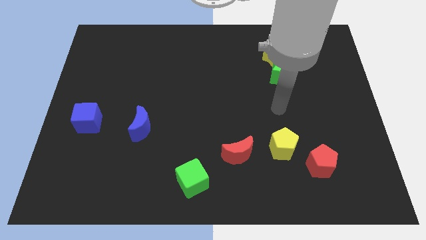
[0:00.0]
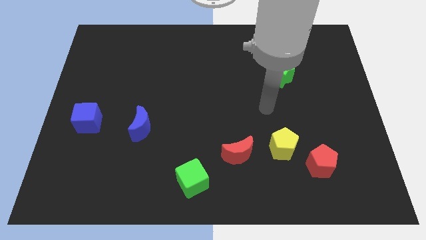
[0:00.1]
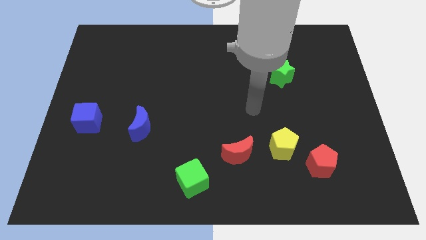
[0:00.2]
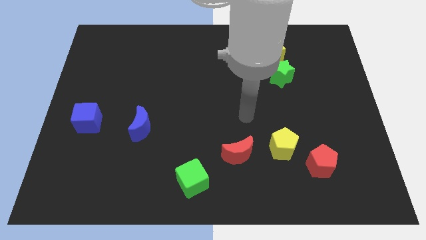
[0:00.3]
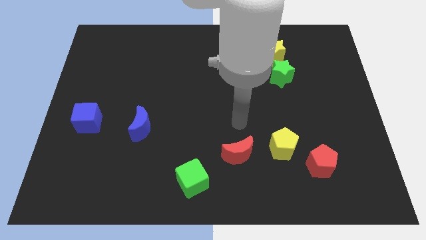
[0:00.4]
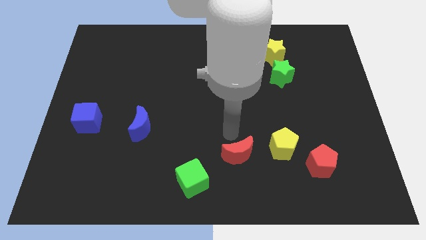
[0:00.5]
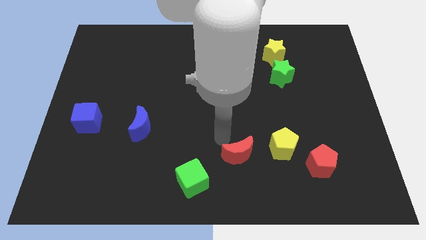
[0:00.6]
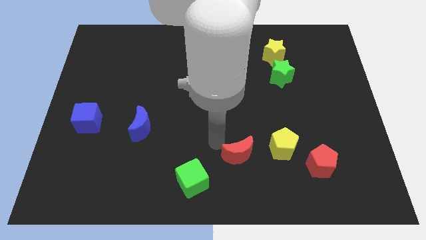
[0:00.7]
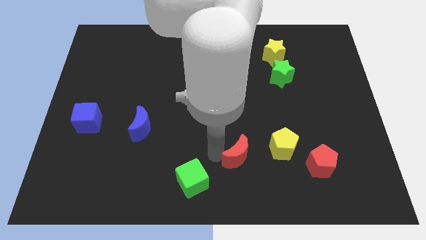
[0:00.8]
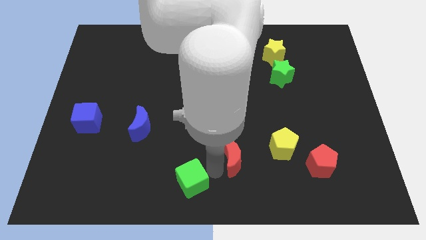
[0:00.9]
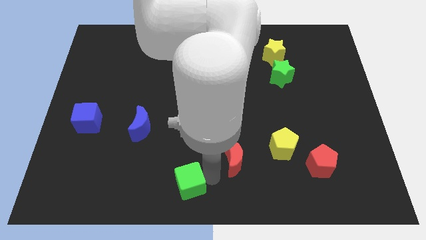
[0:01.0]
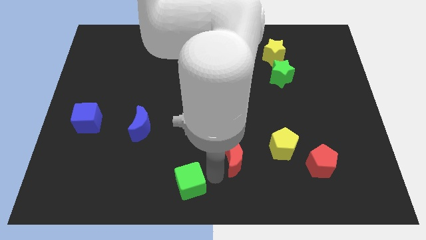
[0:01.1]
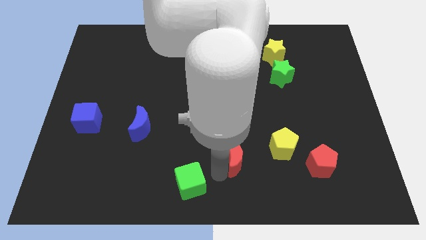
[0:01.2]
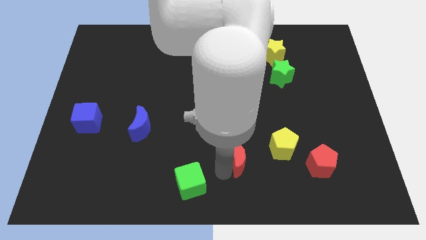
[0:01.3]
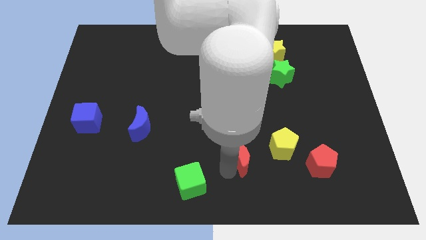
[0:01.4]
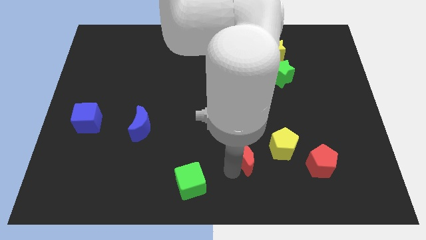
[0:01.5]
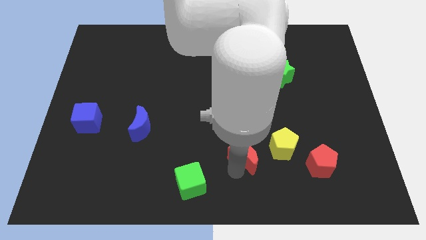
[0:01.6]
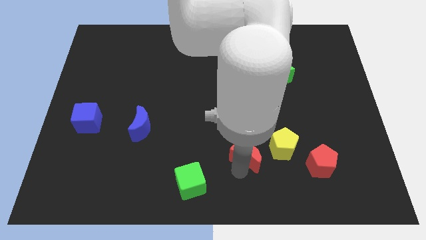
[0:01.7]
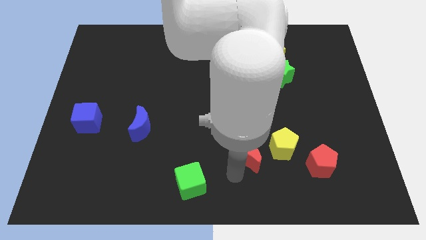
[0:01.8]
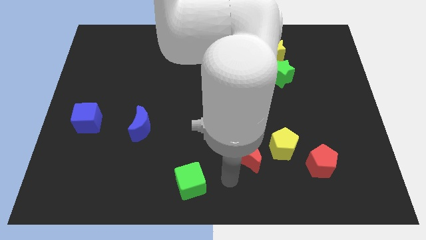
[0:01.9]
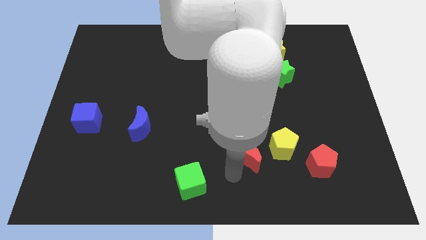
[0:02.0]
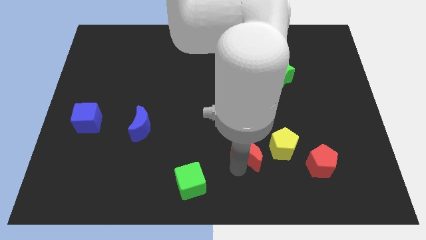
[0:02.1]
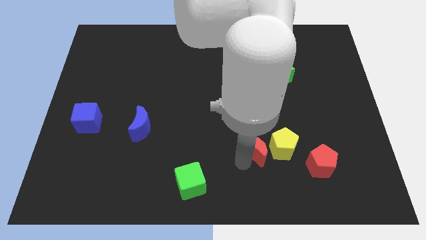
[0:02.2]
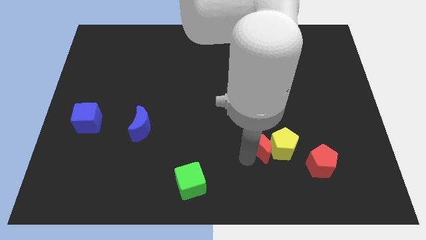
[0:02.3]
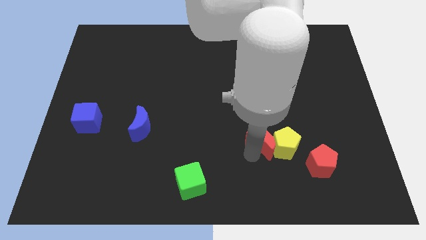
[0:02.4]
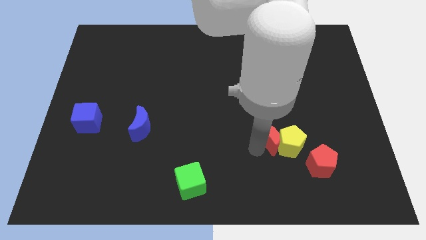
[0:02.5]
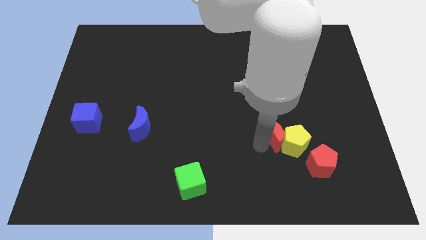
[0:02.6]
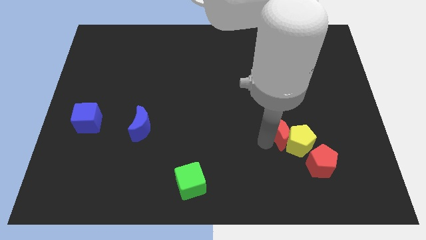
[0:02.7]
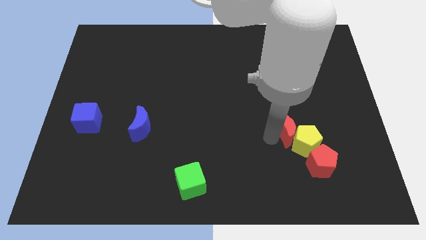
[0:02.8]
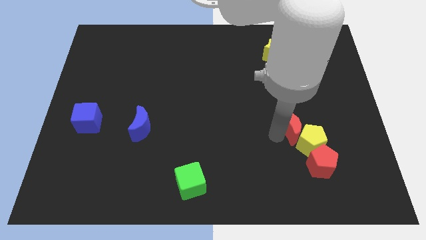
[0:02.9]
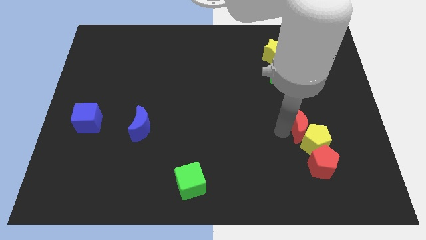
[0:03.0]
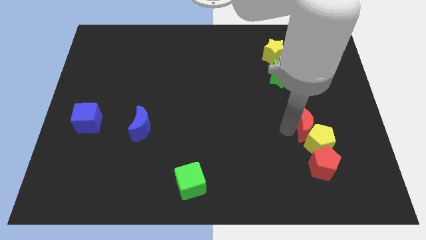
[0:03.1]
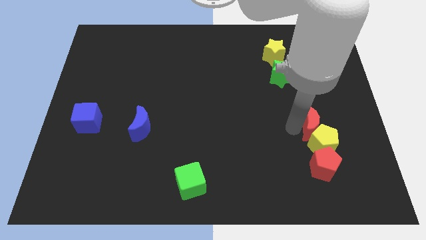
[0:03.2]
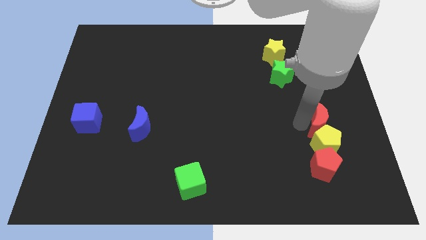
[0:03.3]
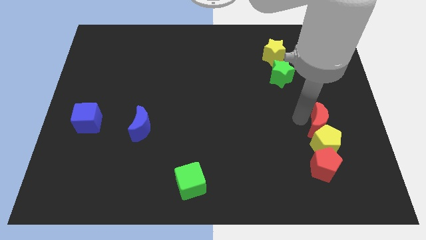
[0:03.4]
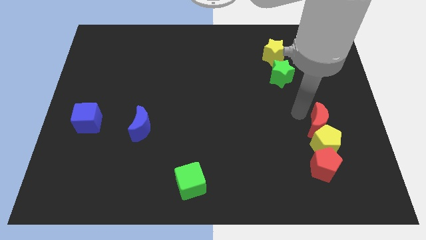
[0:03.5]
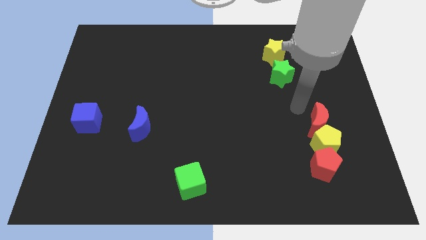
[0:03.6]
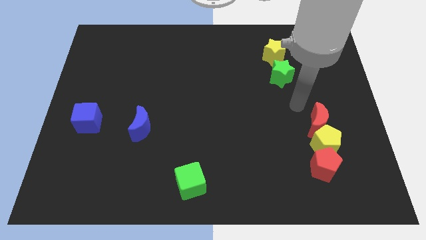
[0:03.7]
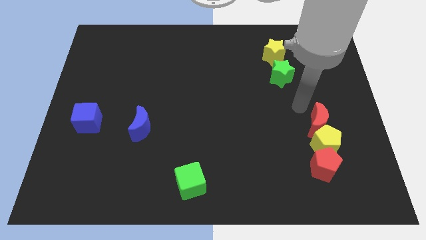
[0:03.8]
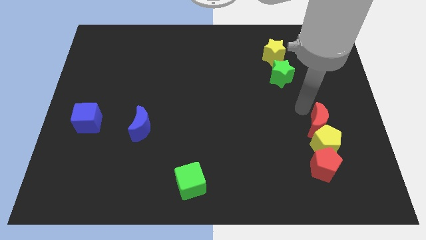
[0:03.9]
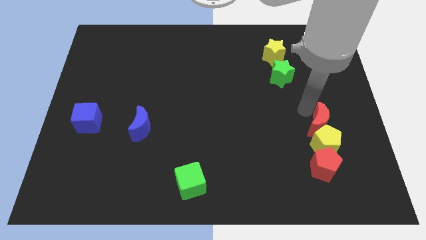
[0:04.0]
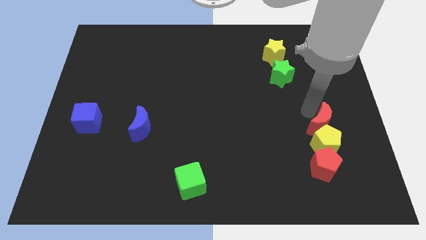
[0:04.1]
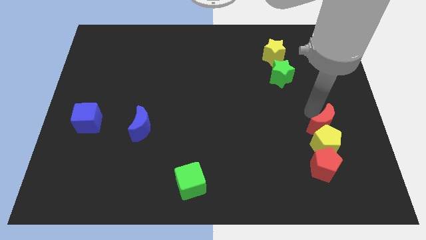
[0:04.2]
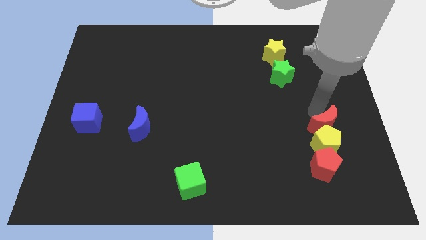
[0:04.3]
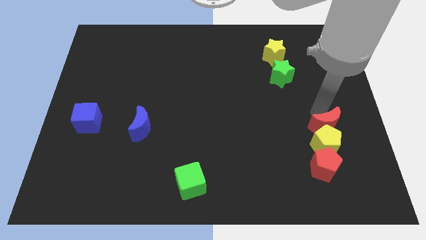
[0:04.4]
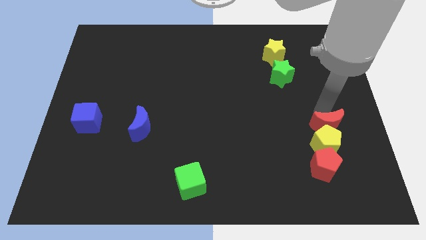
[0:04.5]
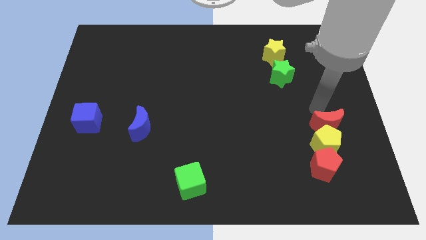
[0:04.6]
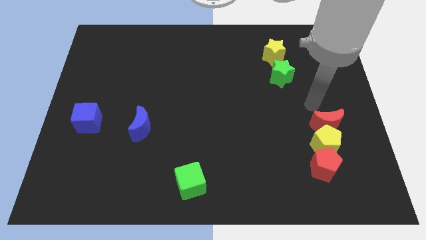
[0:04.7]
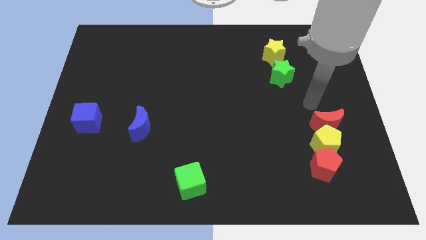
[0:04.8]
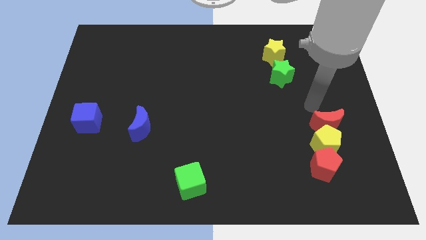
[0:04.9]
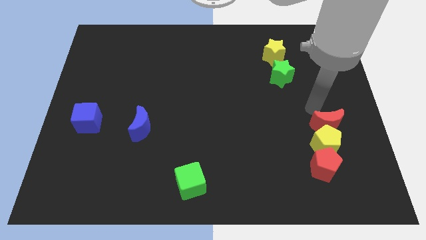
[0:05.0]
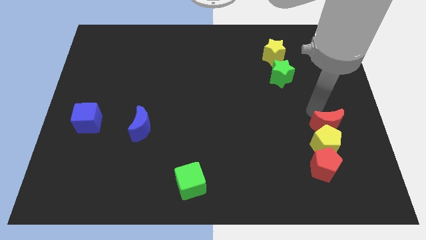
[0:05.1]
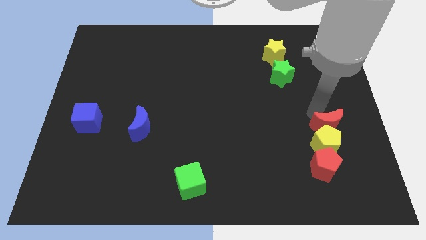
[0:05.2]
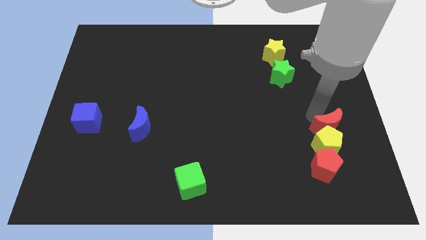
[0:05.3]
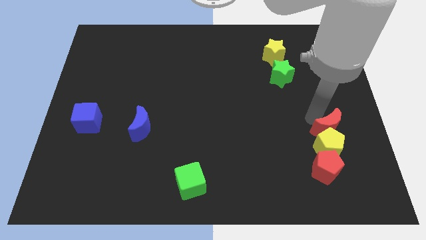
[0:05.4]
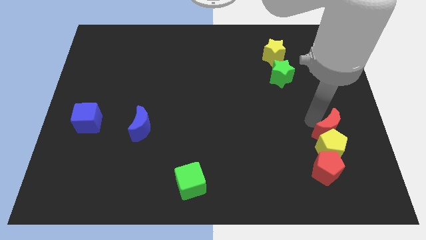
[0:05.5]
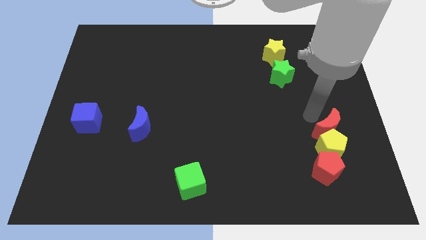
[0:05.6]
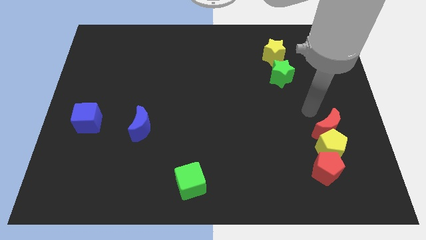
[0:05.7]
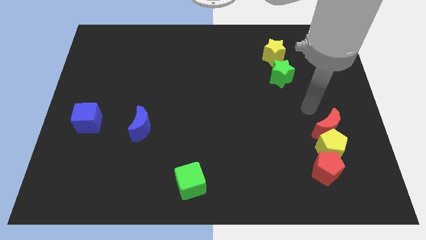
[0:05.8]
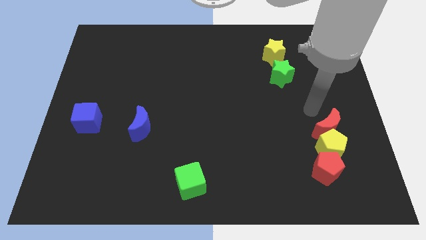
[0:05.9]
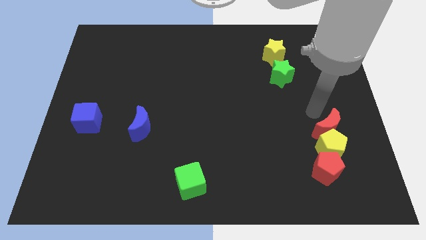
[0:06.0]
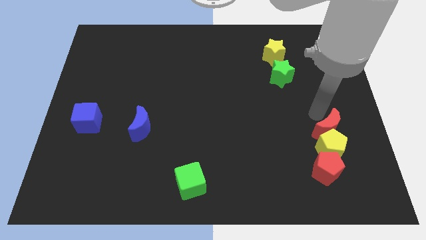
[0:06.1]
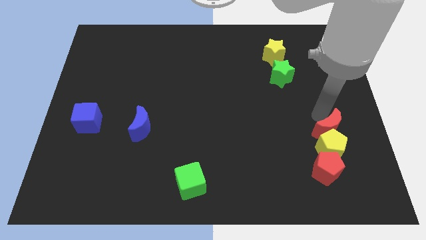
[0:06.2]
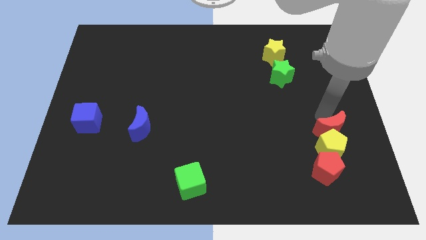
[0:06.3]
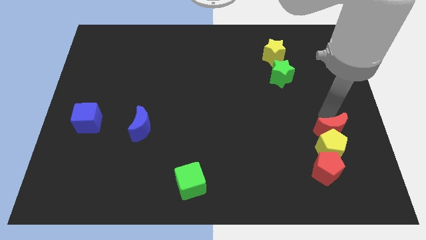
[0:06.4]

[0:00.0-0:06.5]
slide the red moon to the top right of the red pentagon

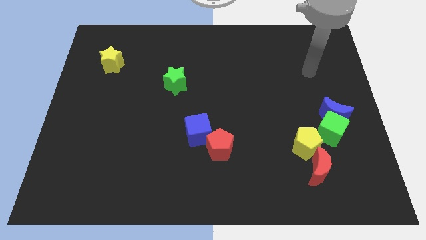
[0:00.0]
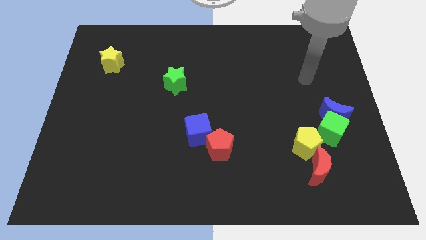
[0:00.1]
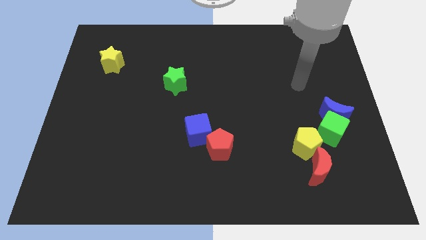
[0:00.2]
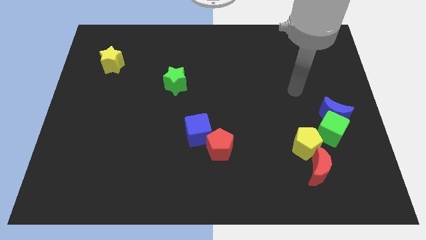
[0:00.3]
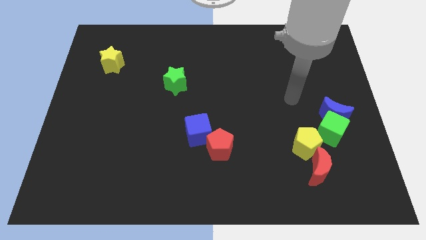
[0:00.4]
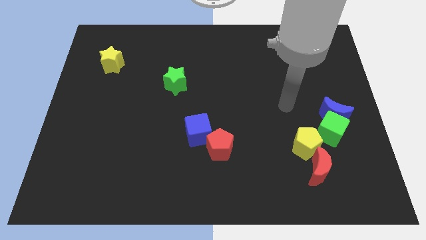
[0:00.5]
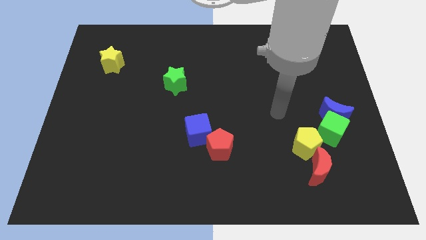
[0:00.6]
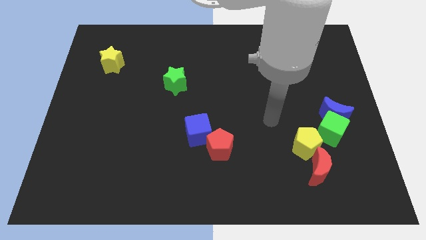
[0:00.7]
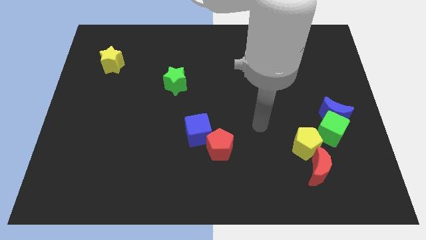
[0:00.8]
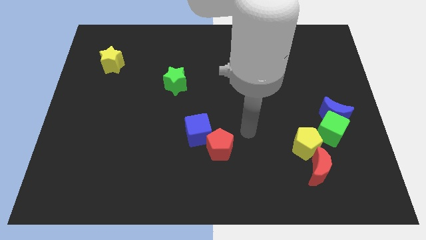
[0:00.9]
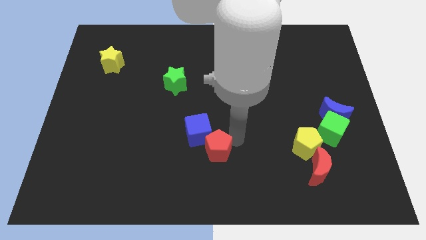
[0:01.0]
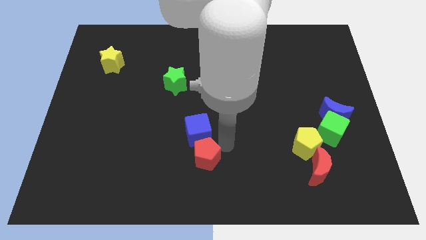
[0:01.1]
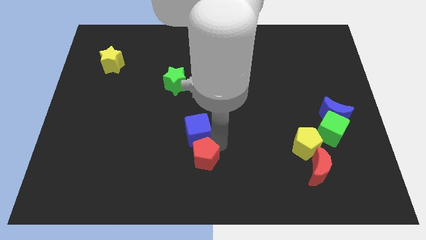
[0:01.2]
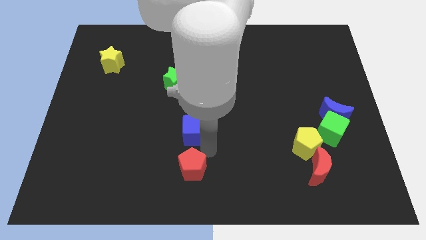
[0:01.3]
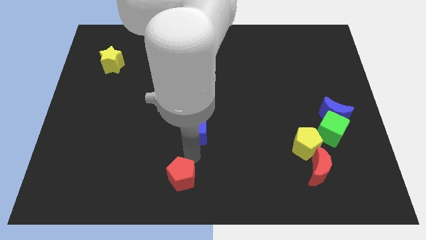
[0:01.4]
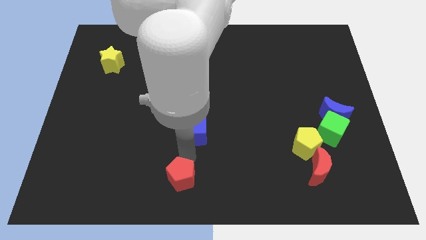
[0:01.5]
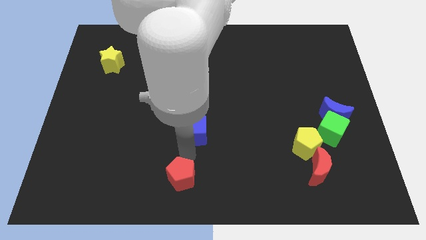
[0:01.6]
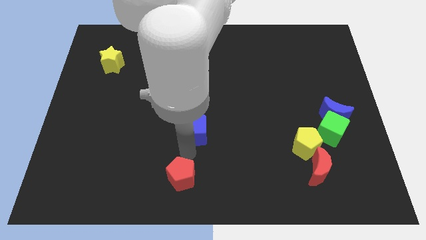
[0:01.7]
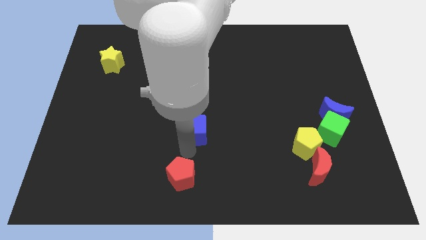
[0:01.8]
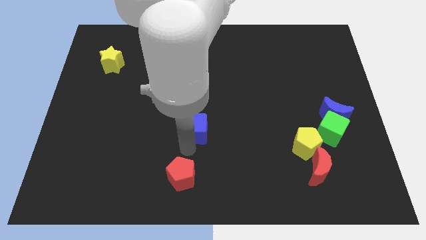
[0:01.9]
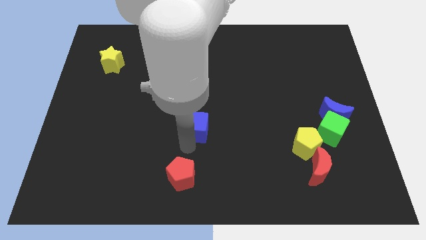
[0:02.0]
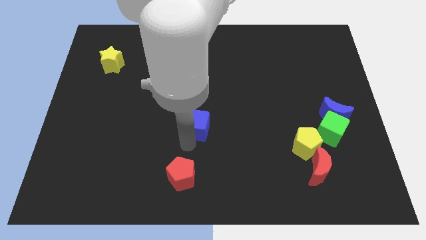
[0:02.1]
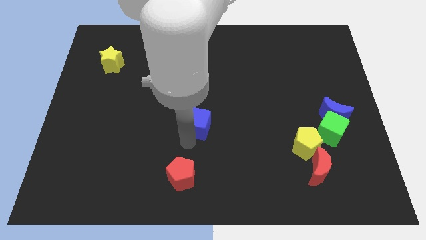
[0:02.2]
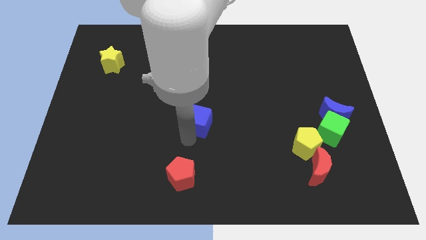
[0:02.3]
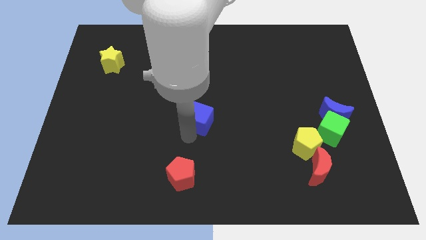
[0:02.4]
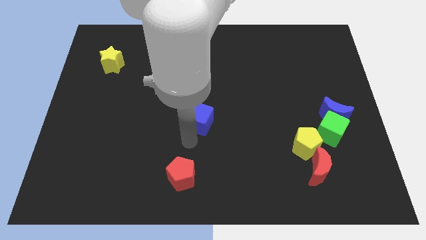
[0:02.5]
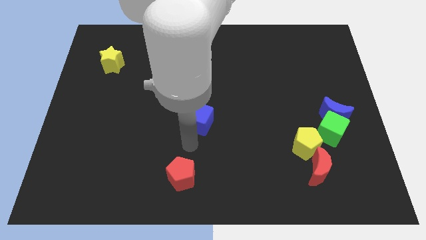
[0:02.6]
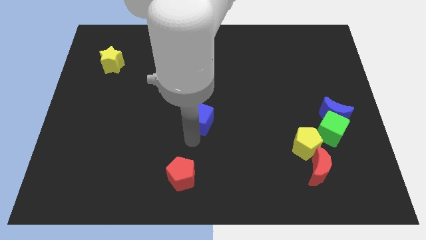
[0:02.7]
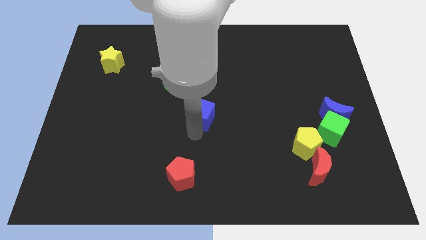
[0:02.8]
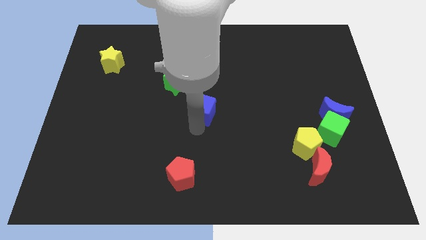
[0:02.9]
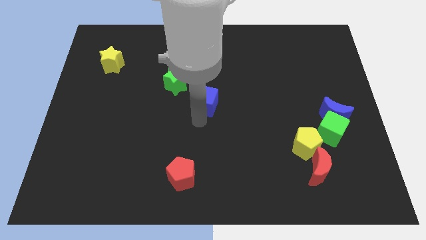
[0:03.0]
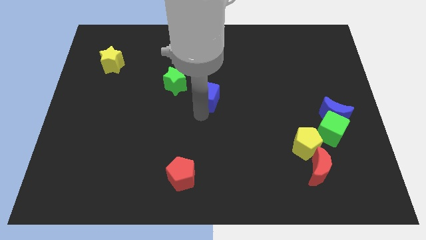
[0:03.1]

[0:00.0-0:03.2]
push the blue cube right of the green star
